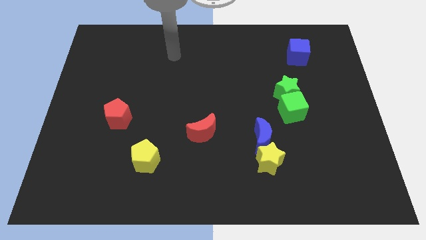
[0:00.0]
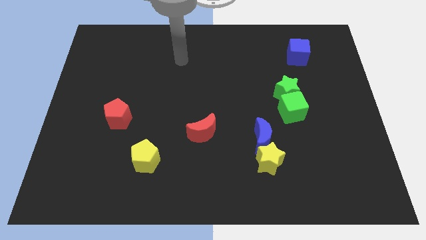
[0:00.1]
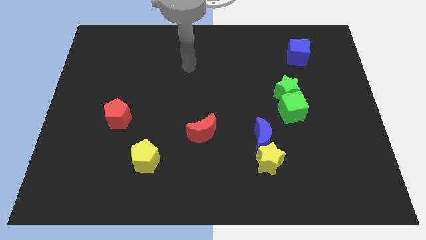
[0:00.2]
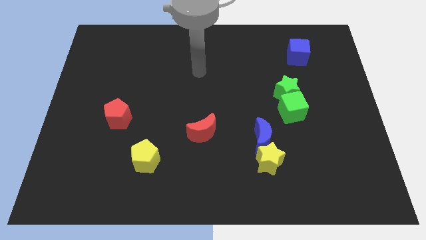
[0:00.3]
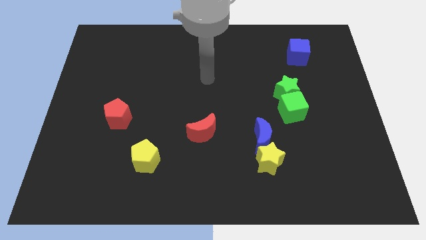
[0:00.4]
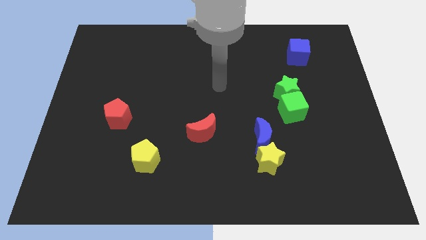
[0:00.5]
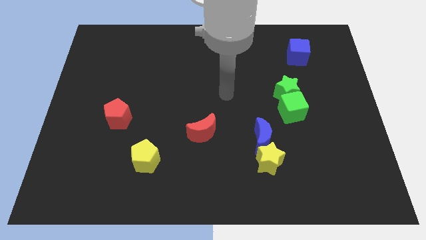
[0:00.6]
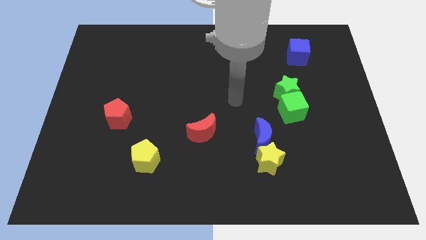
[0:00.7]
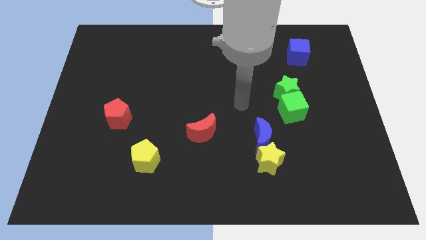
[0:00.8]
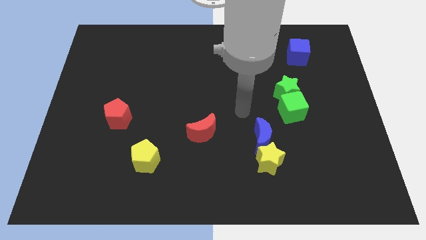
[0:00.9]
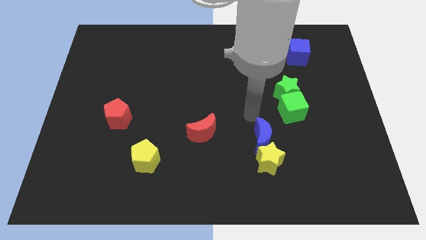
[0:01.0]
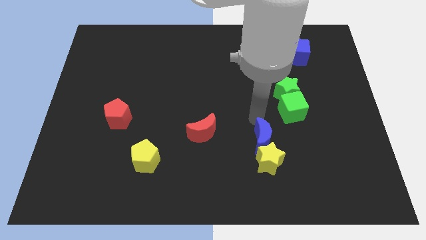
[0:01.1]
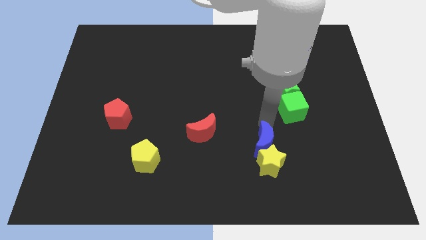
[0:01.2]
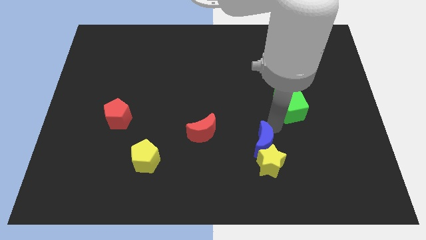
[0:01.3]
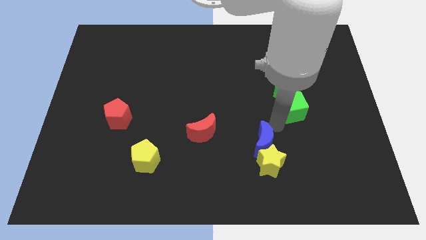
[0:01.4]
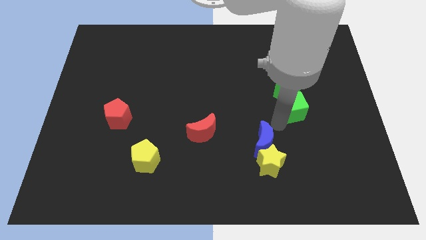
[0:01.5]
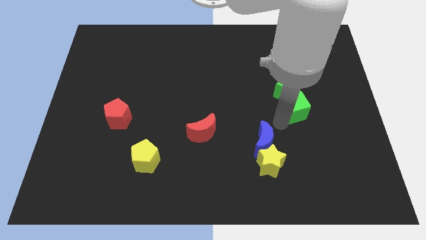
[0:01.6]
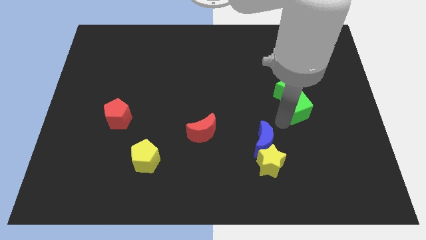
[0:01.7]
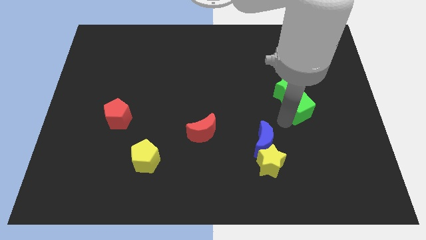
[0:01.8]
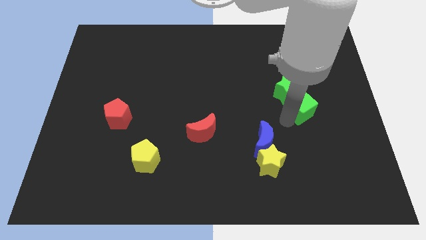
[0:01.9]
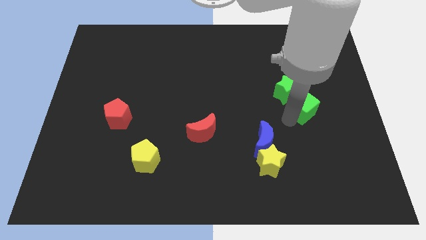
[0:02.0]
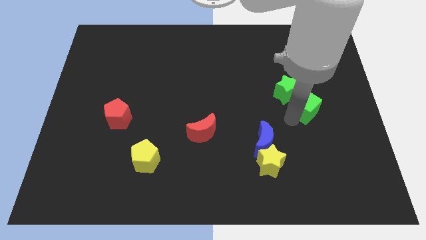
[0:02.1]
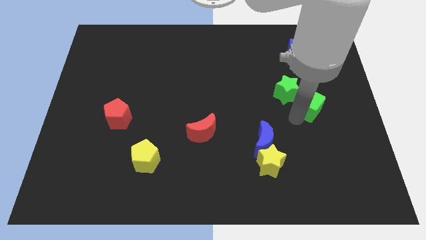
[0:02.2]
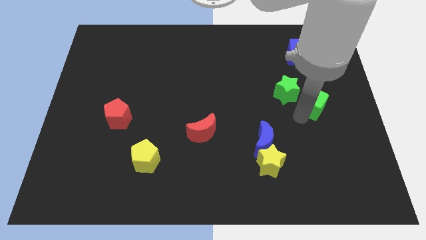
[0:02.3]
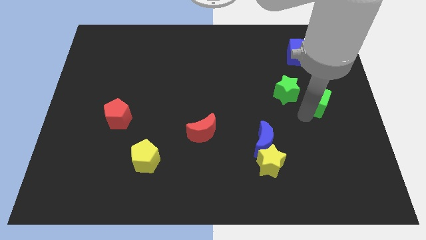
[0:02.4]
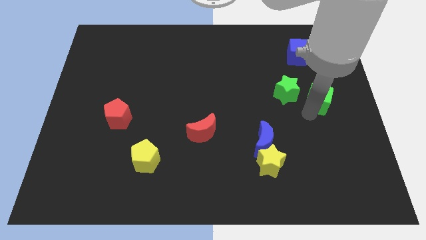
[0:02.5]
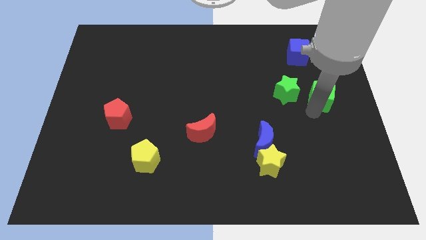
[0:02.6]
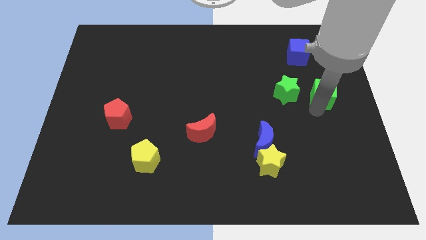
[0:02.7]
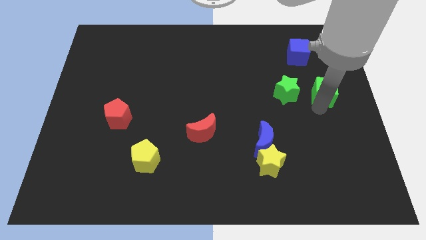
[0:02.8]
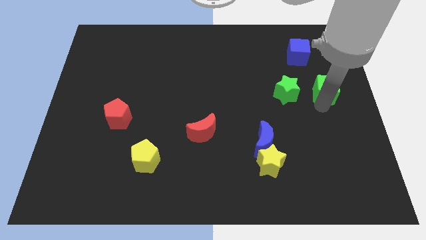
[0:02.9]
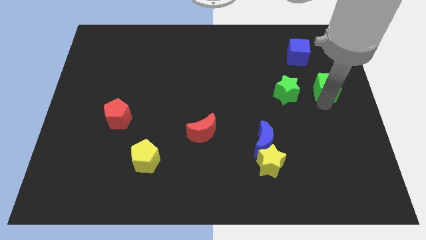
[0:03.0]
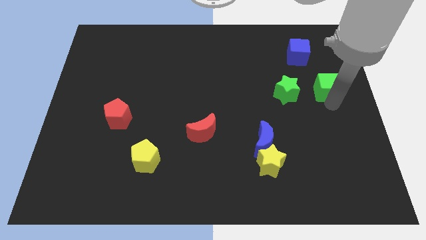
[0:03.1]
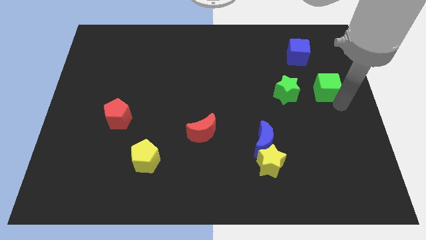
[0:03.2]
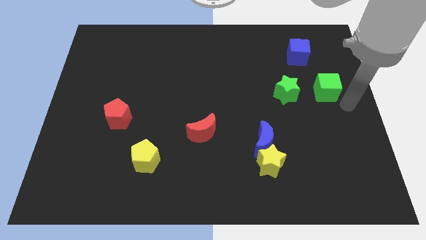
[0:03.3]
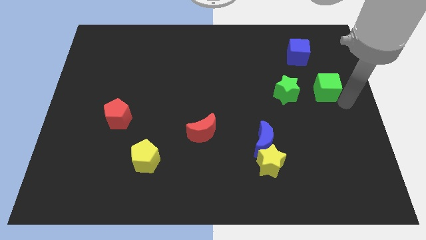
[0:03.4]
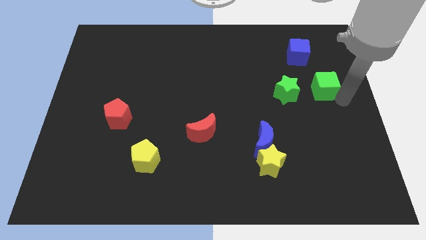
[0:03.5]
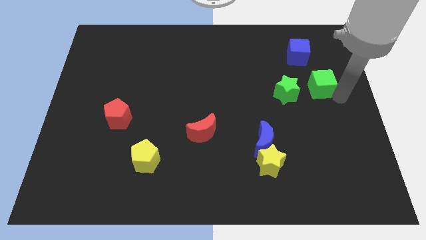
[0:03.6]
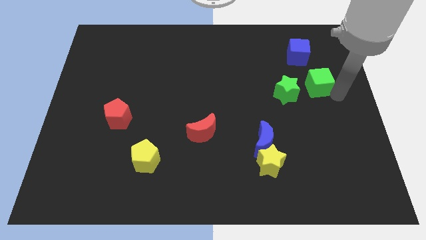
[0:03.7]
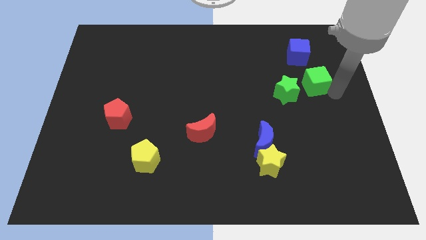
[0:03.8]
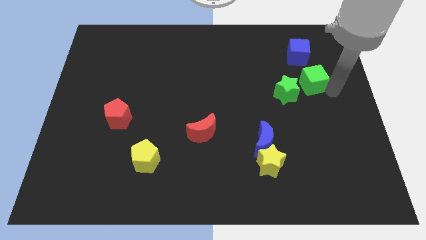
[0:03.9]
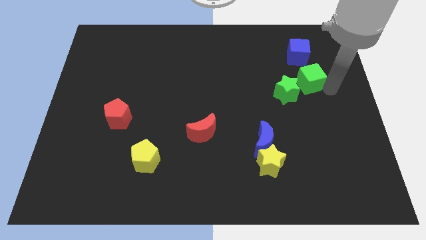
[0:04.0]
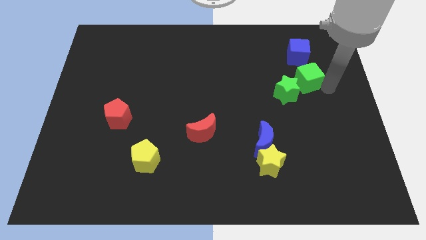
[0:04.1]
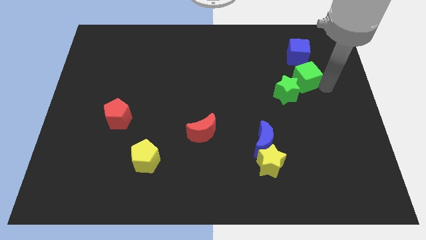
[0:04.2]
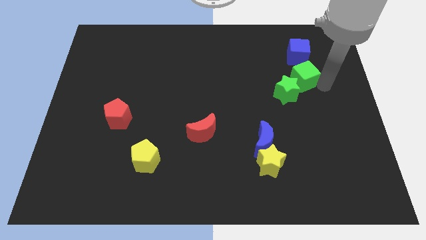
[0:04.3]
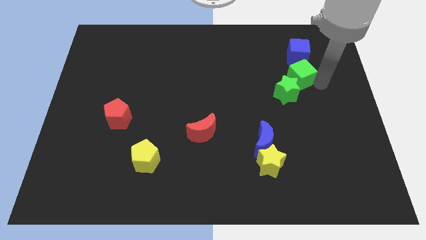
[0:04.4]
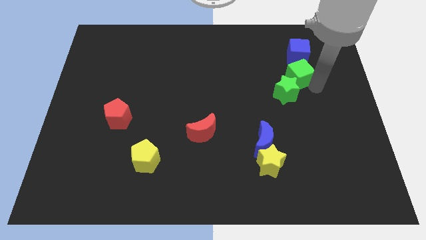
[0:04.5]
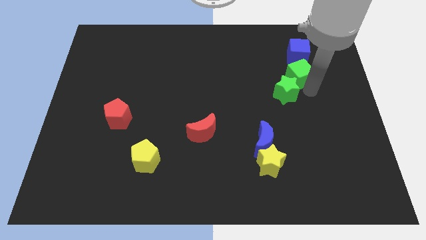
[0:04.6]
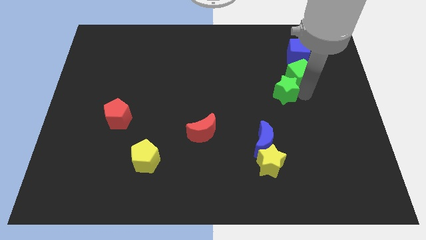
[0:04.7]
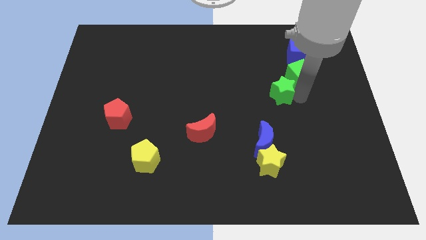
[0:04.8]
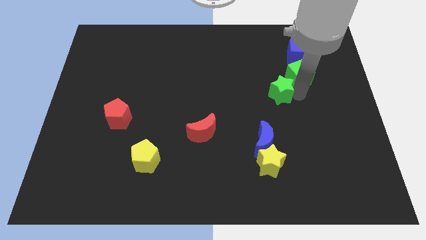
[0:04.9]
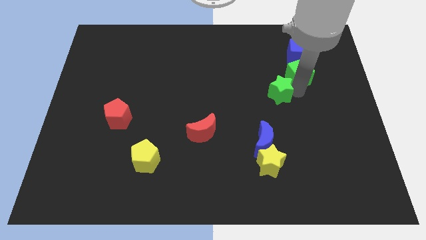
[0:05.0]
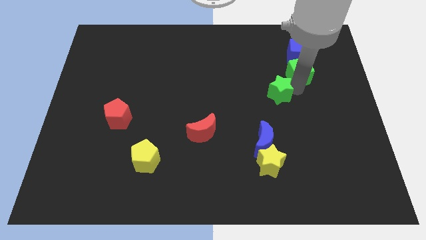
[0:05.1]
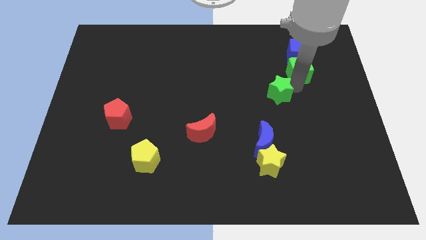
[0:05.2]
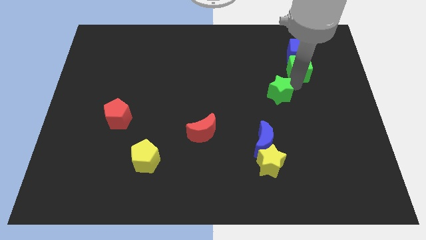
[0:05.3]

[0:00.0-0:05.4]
push the green cube towards the blue cube

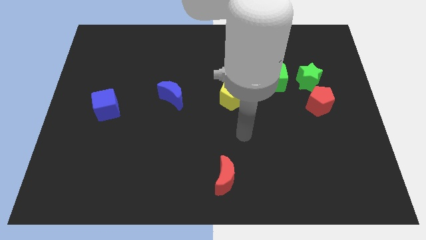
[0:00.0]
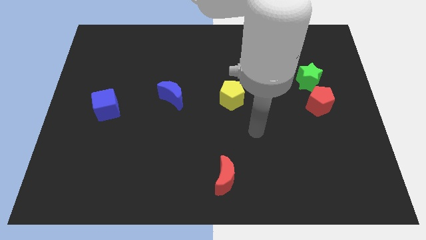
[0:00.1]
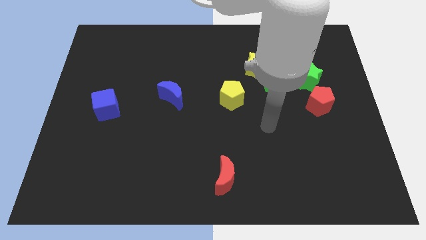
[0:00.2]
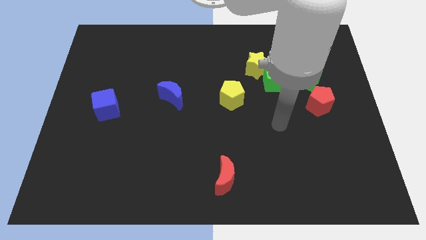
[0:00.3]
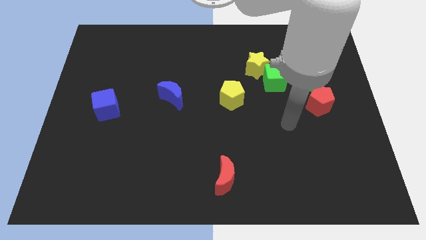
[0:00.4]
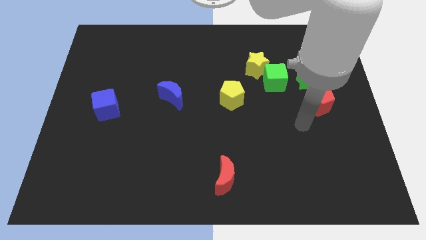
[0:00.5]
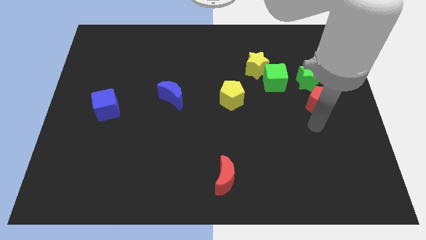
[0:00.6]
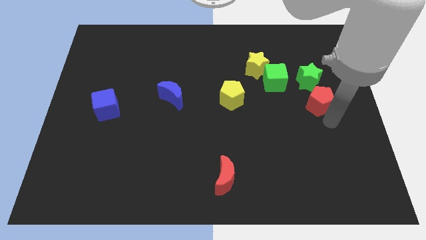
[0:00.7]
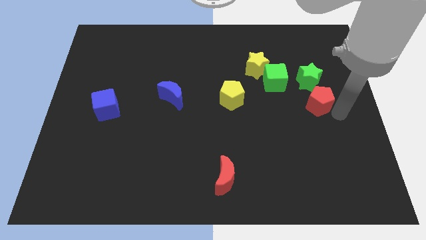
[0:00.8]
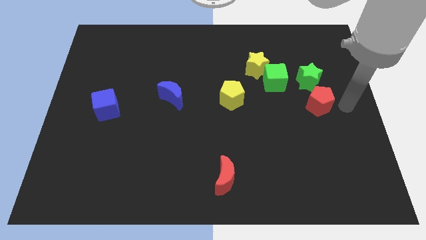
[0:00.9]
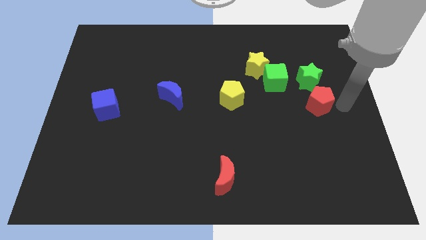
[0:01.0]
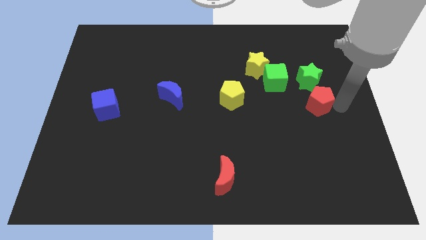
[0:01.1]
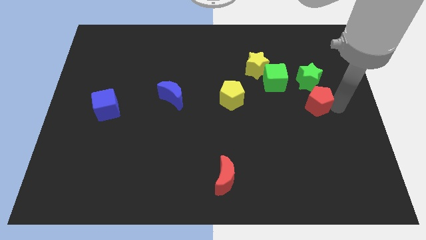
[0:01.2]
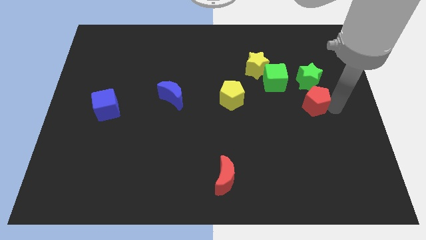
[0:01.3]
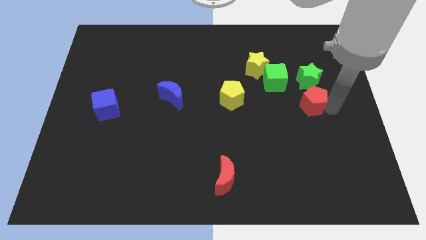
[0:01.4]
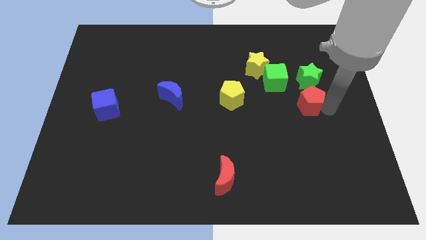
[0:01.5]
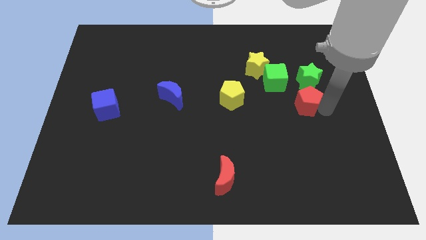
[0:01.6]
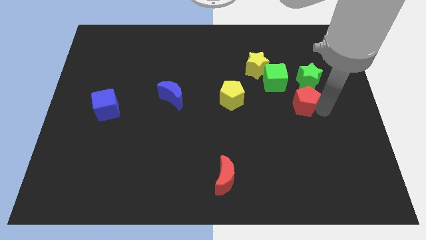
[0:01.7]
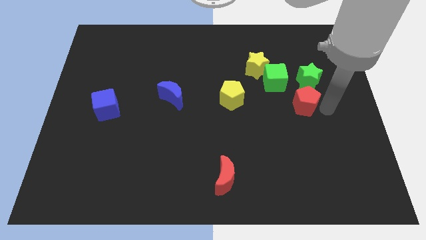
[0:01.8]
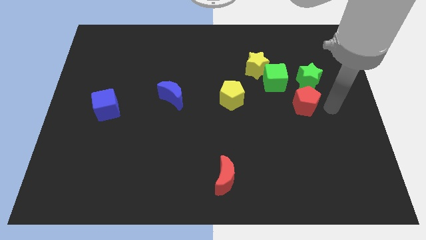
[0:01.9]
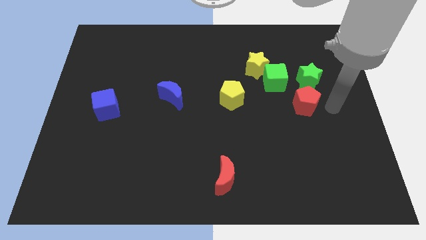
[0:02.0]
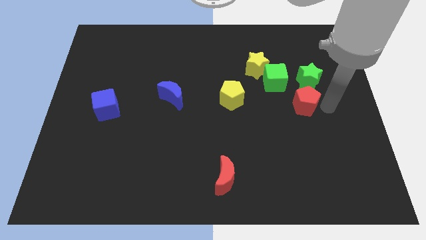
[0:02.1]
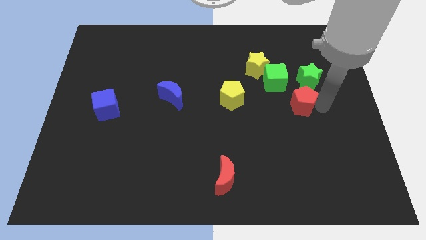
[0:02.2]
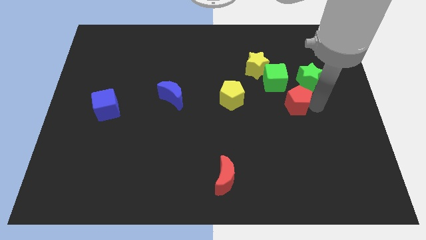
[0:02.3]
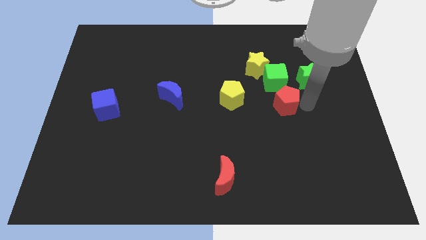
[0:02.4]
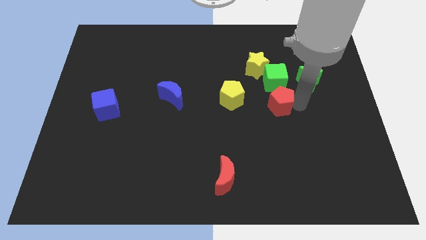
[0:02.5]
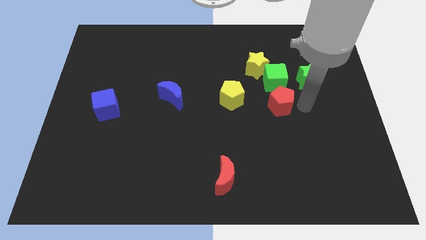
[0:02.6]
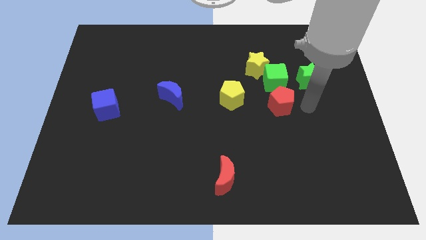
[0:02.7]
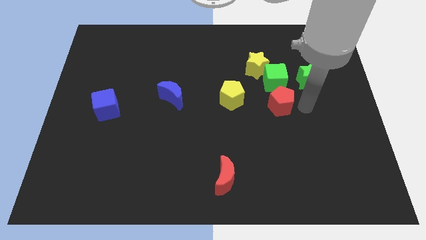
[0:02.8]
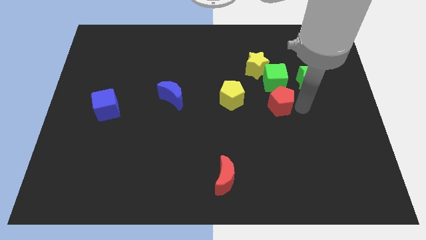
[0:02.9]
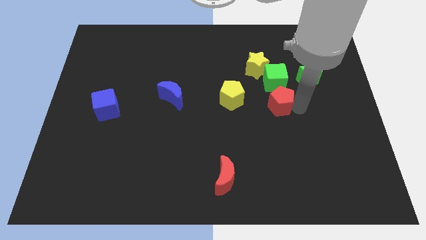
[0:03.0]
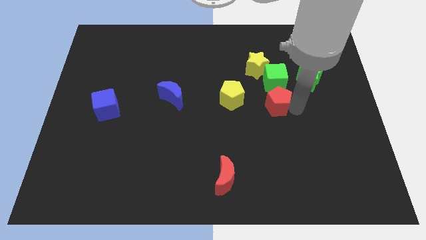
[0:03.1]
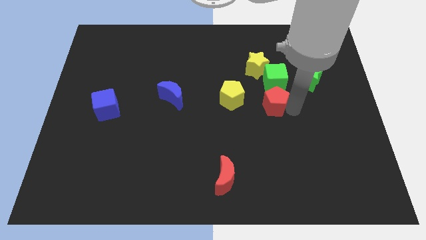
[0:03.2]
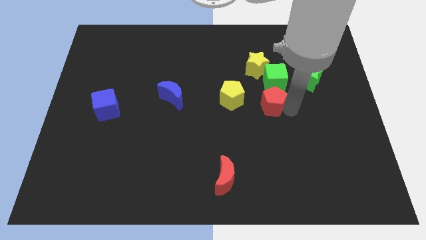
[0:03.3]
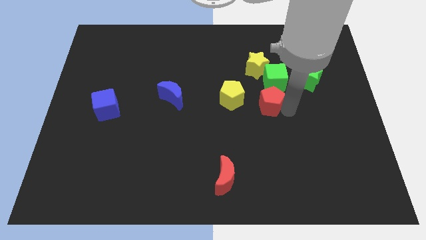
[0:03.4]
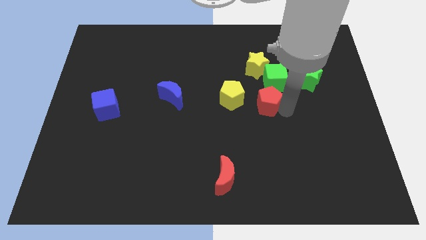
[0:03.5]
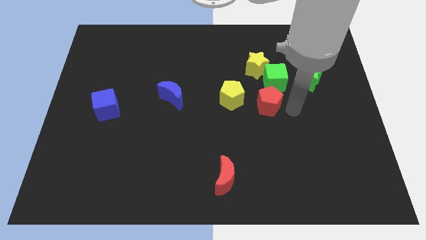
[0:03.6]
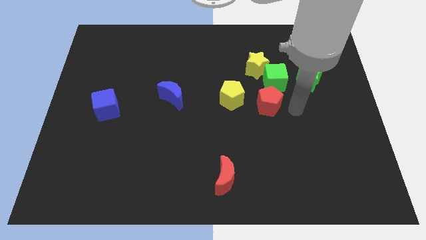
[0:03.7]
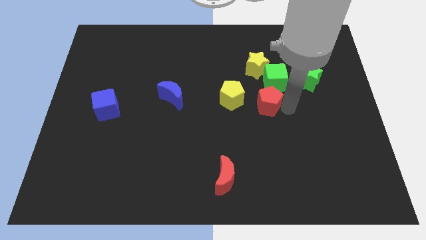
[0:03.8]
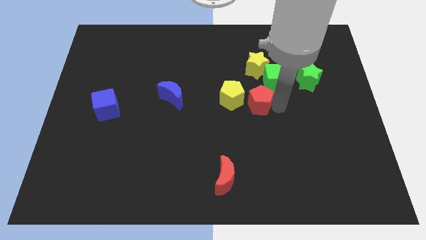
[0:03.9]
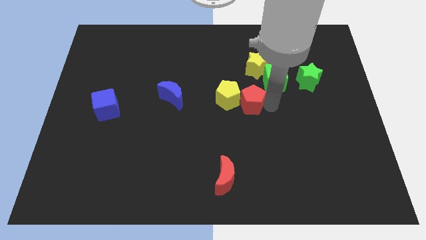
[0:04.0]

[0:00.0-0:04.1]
put the red pentagon close to the yellow pentagon
